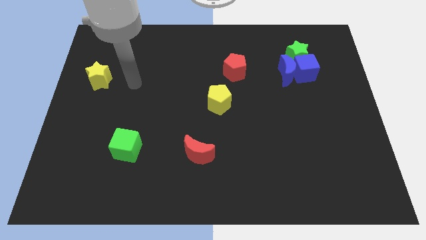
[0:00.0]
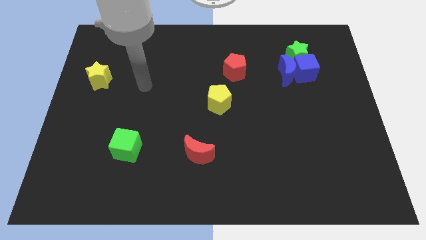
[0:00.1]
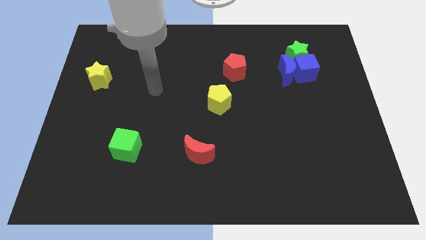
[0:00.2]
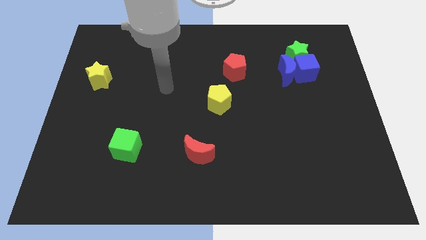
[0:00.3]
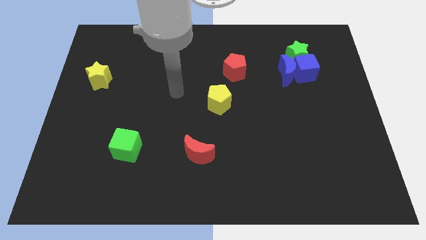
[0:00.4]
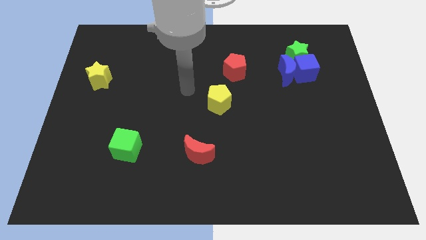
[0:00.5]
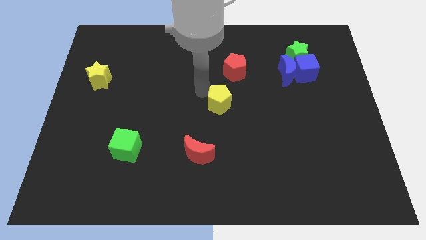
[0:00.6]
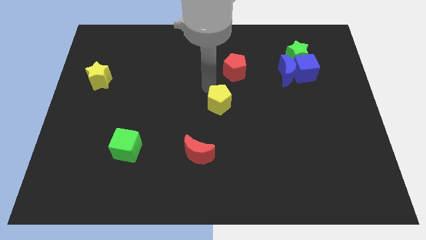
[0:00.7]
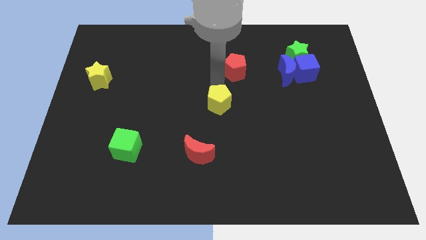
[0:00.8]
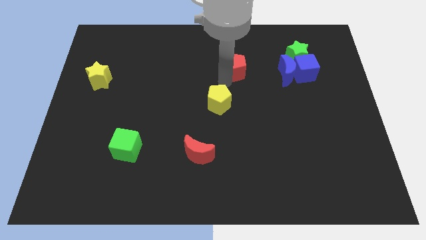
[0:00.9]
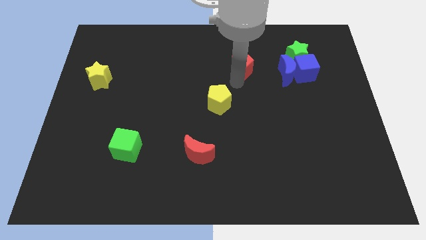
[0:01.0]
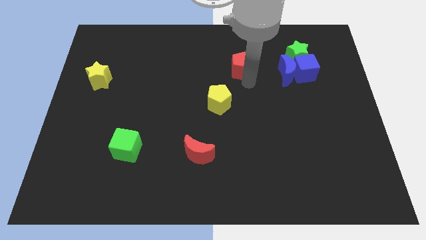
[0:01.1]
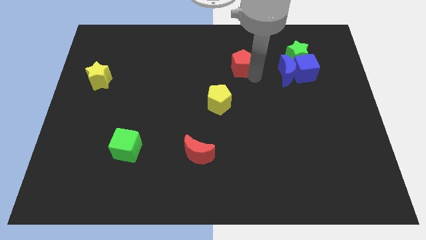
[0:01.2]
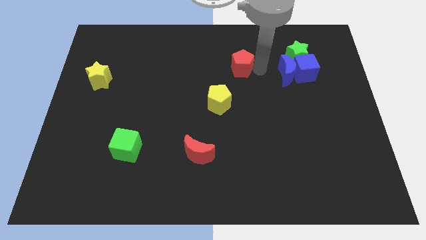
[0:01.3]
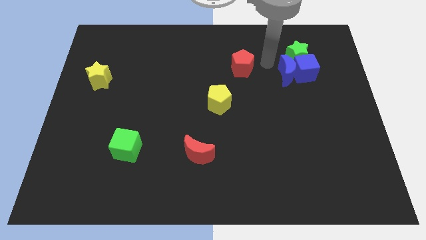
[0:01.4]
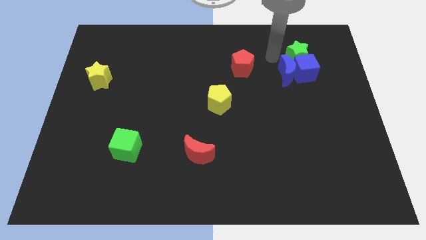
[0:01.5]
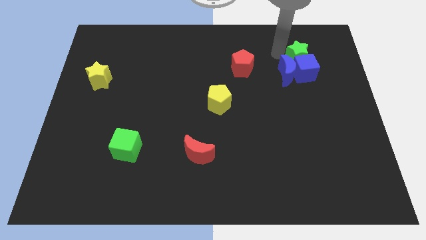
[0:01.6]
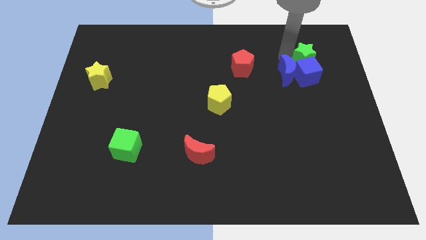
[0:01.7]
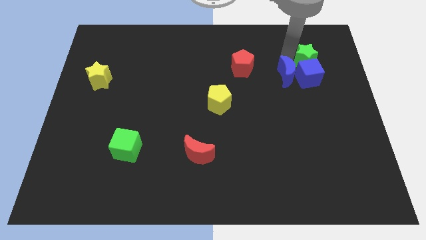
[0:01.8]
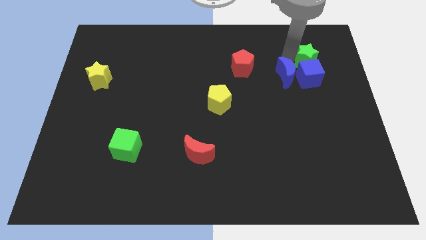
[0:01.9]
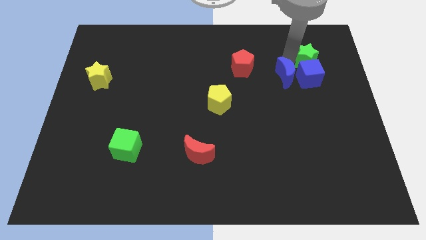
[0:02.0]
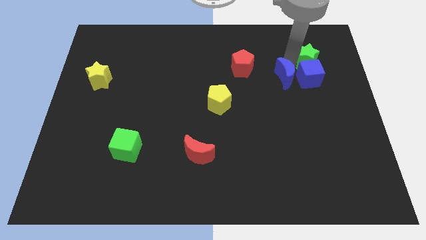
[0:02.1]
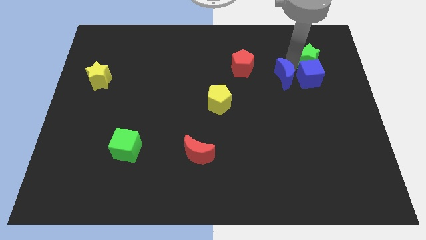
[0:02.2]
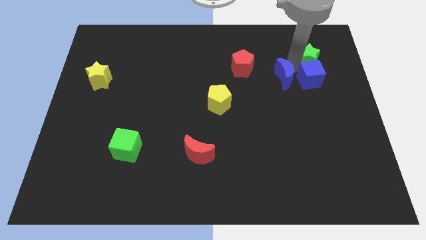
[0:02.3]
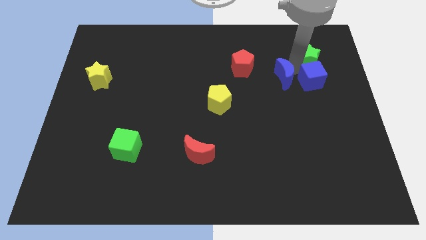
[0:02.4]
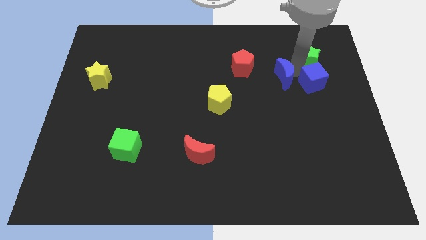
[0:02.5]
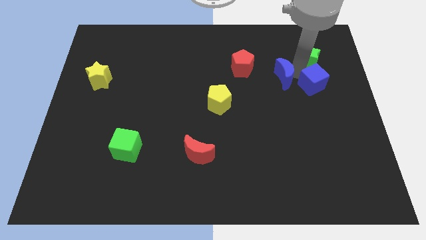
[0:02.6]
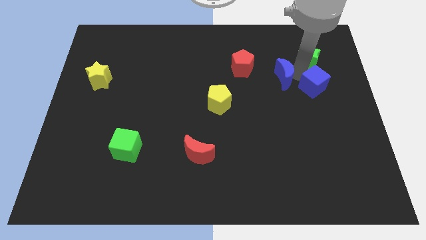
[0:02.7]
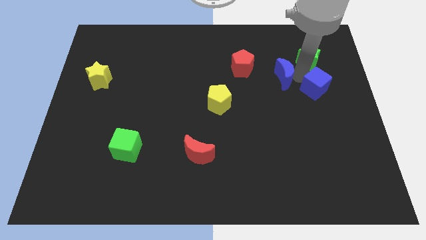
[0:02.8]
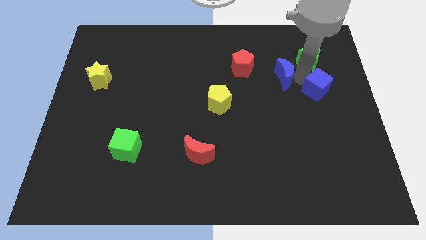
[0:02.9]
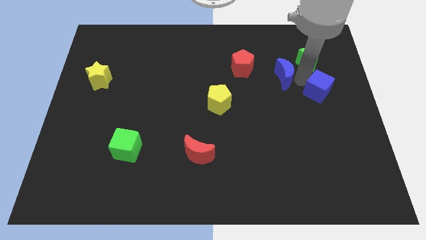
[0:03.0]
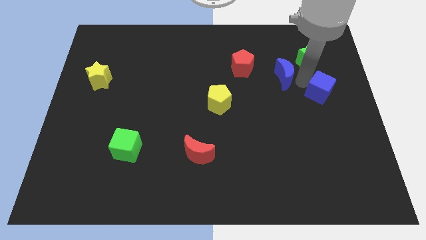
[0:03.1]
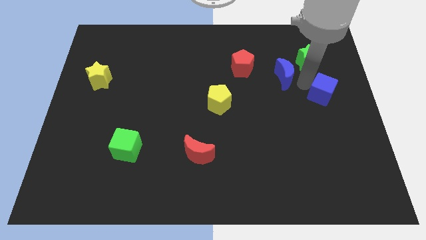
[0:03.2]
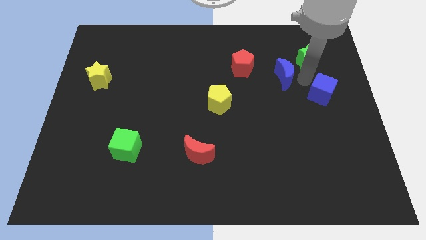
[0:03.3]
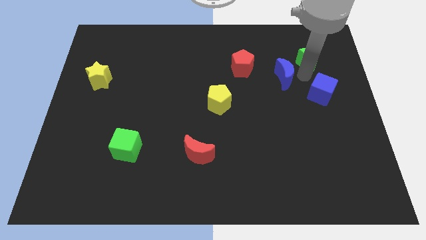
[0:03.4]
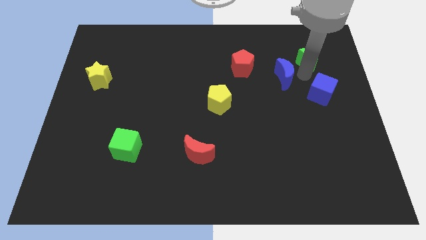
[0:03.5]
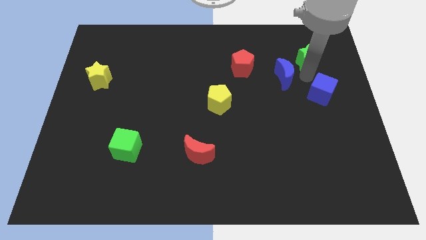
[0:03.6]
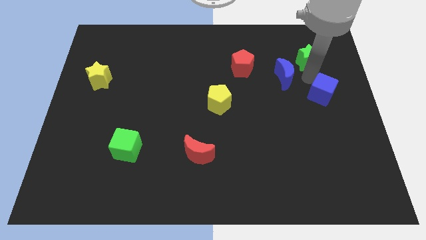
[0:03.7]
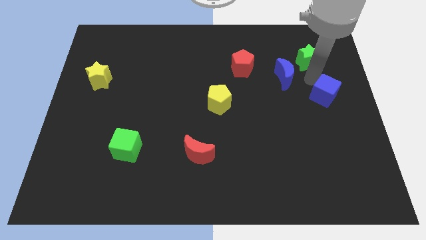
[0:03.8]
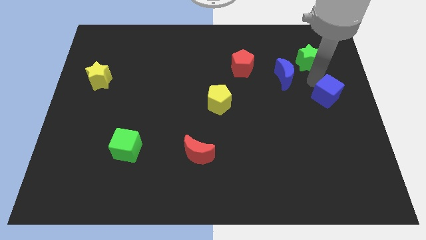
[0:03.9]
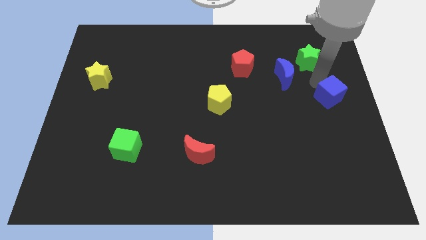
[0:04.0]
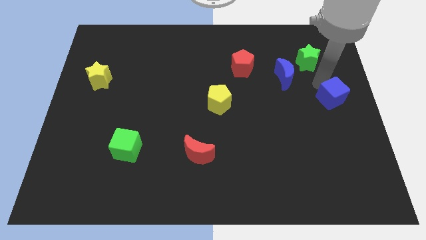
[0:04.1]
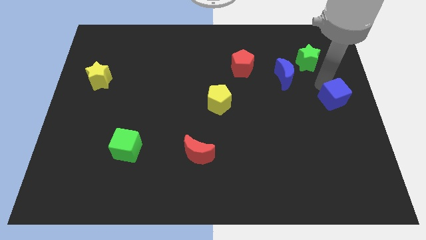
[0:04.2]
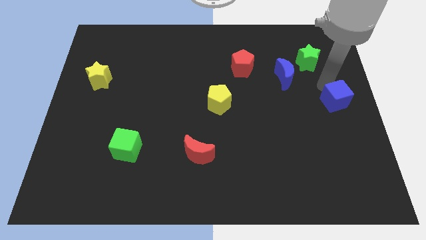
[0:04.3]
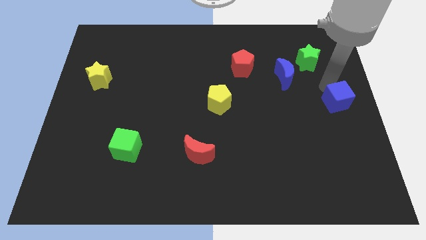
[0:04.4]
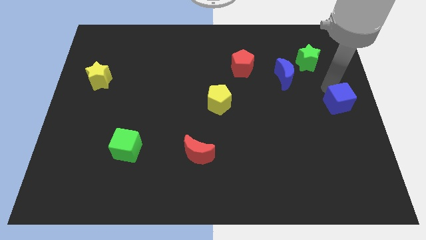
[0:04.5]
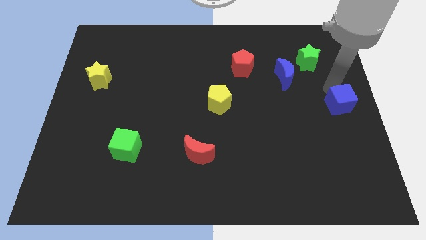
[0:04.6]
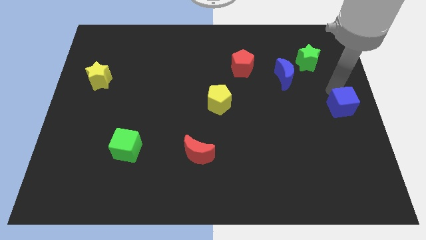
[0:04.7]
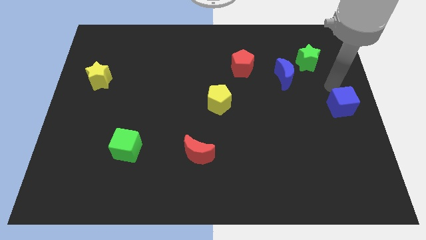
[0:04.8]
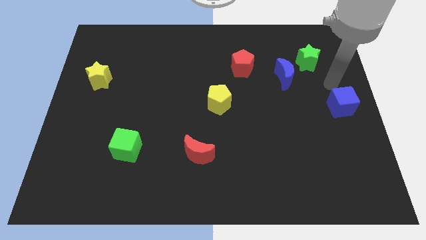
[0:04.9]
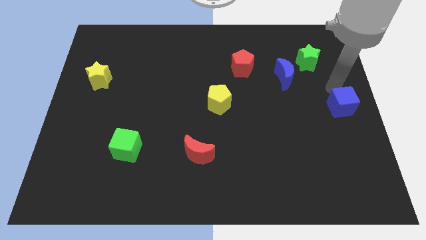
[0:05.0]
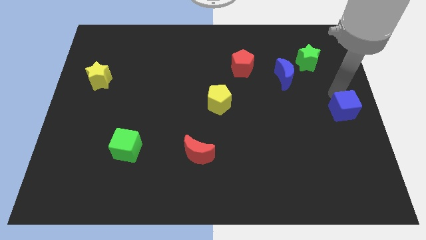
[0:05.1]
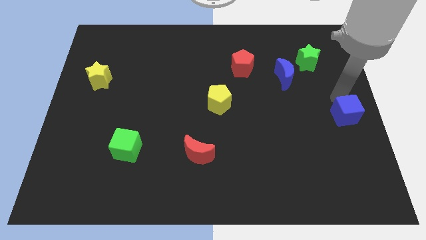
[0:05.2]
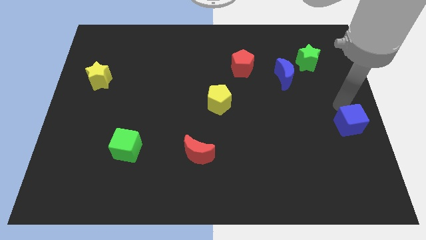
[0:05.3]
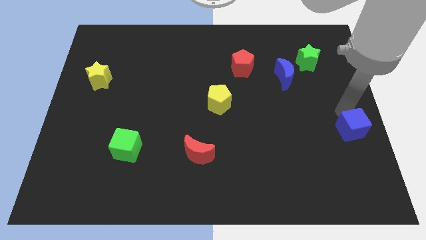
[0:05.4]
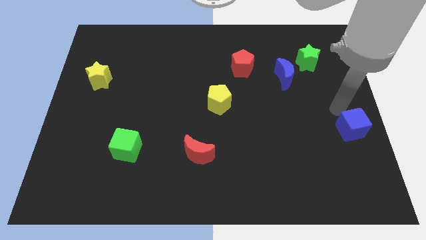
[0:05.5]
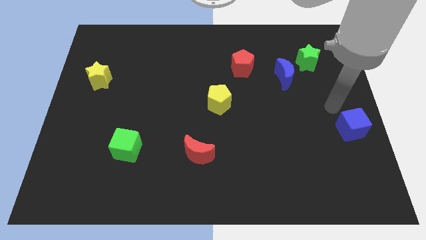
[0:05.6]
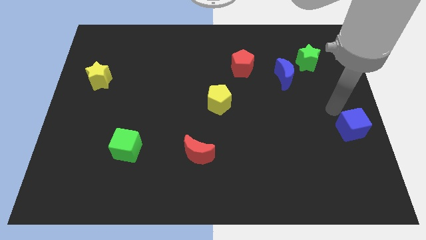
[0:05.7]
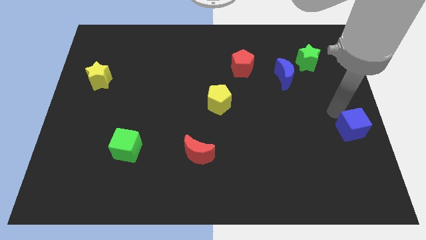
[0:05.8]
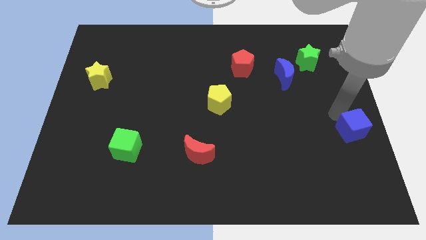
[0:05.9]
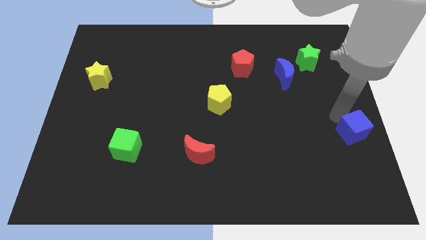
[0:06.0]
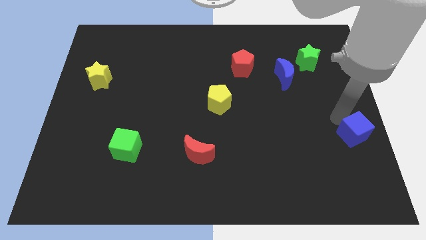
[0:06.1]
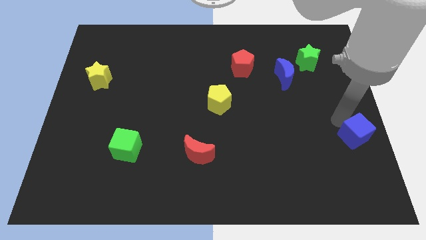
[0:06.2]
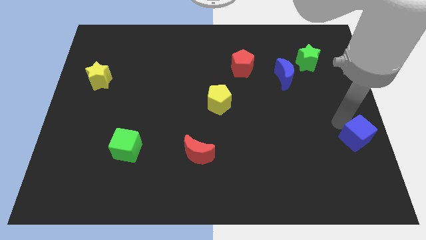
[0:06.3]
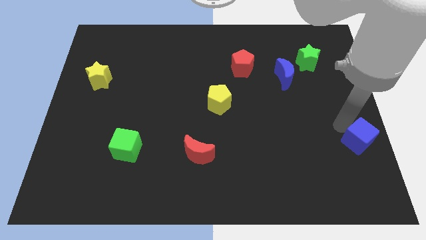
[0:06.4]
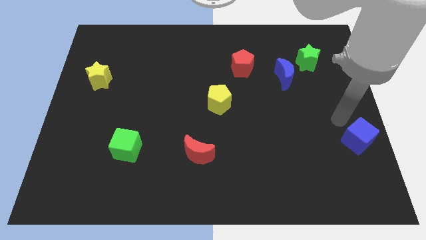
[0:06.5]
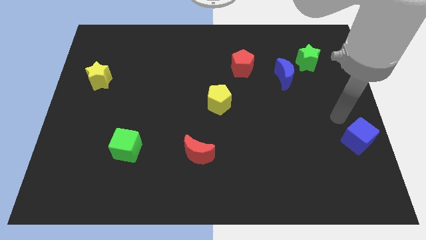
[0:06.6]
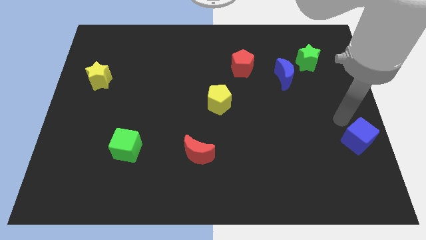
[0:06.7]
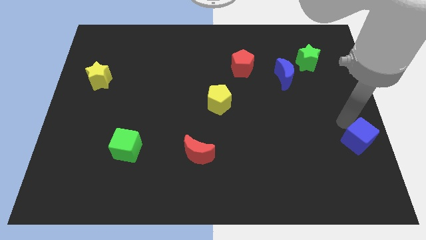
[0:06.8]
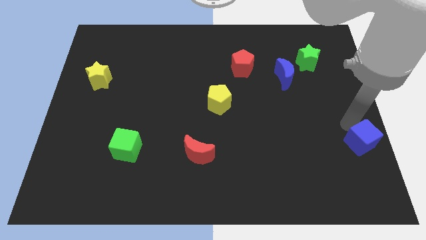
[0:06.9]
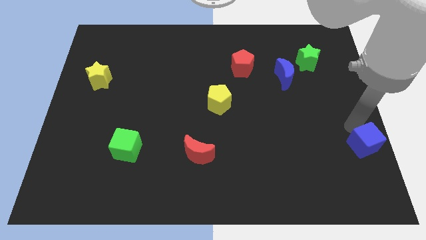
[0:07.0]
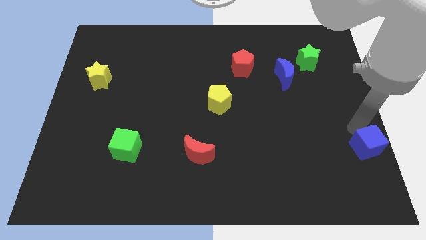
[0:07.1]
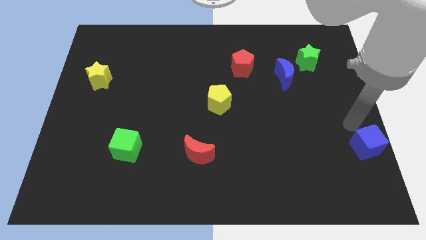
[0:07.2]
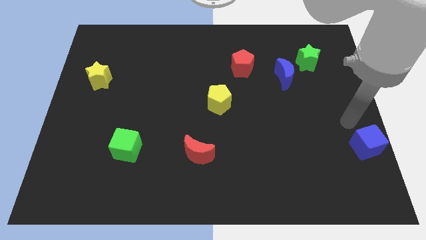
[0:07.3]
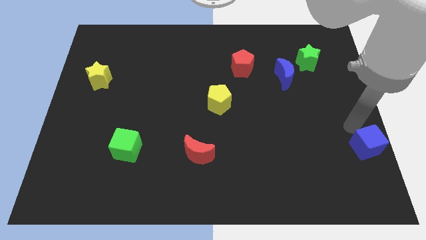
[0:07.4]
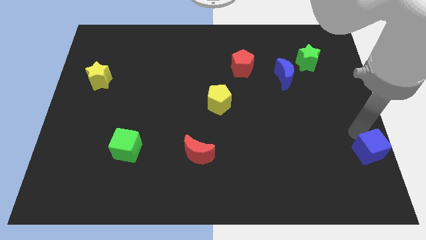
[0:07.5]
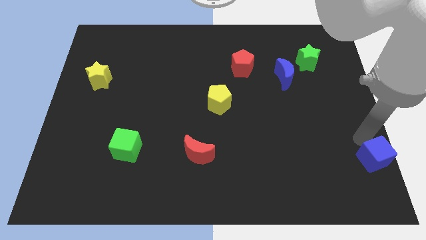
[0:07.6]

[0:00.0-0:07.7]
push the blue cube to the lower right corner
